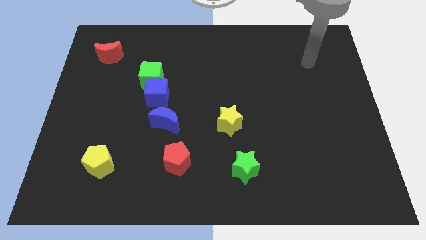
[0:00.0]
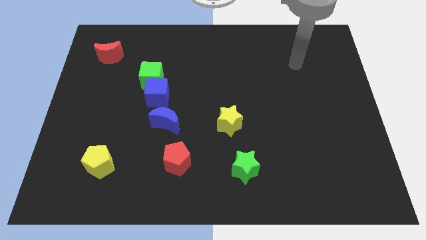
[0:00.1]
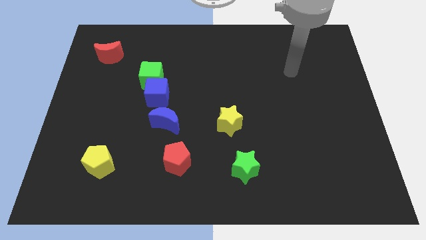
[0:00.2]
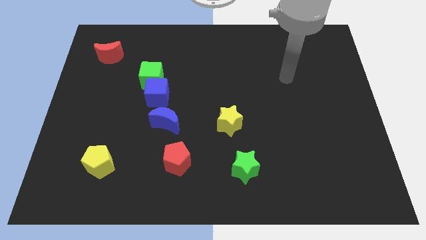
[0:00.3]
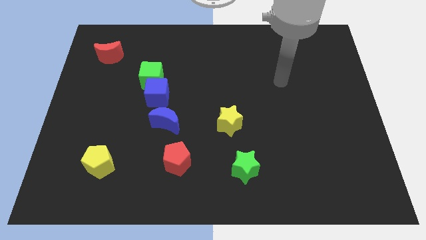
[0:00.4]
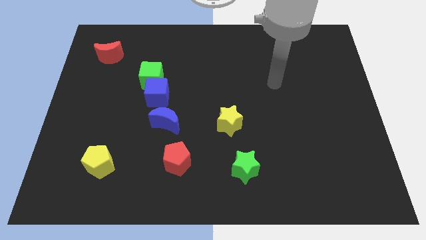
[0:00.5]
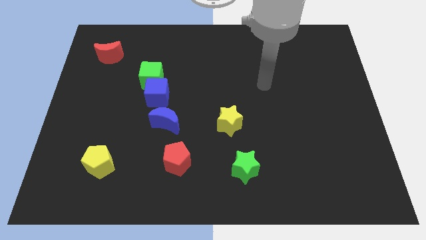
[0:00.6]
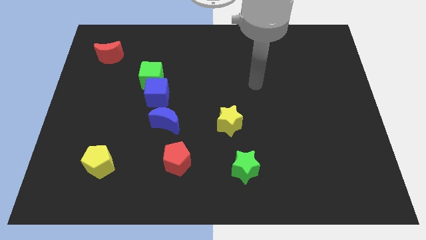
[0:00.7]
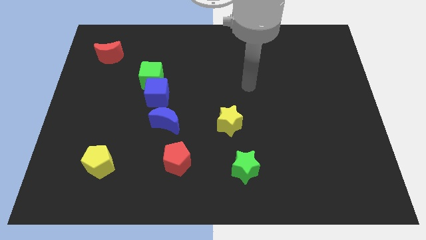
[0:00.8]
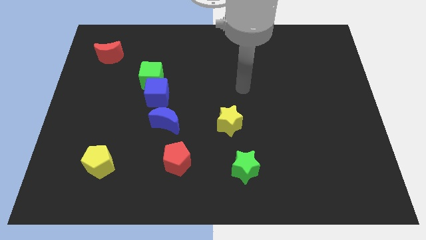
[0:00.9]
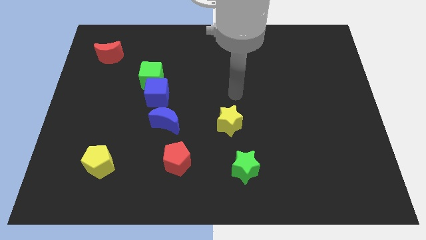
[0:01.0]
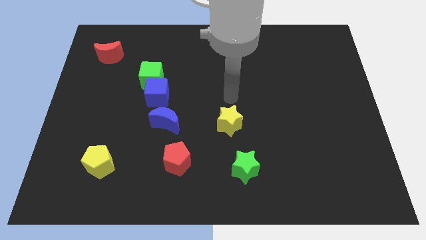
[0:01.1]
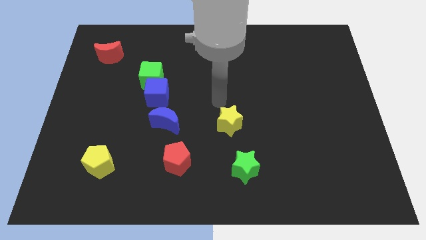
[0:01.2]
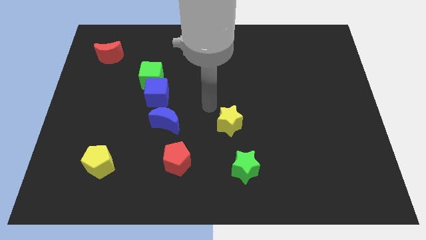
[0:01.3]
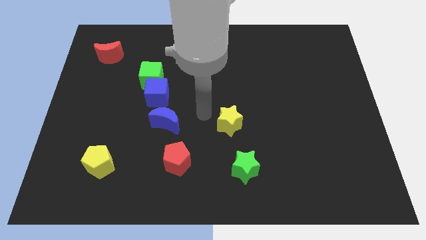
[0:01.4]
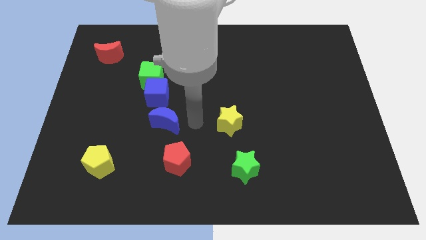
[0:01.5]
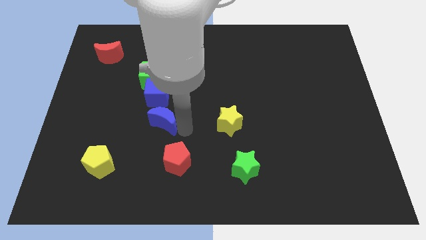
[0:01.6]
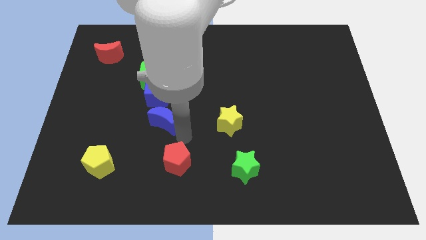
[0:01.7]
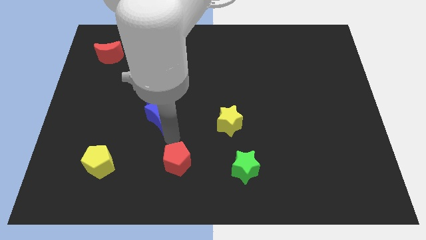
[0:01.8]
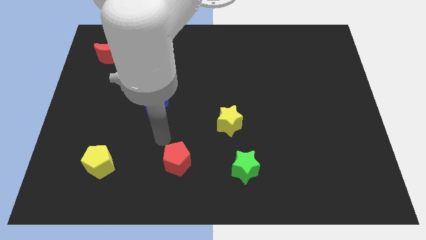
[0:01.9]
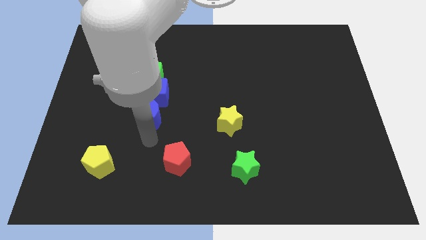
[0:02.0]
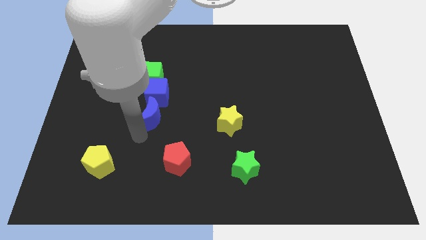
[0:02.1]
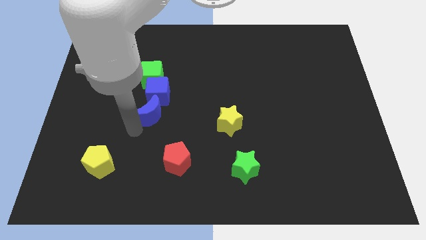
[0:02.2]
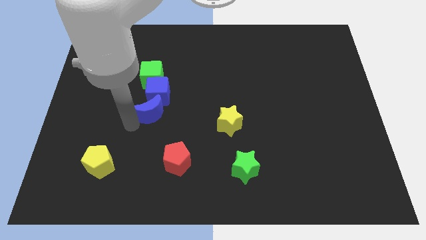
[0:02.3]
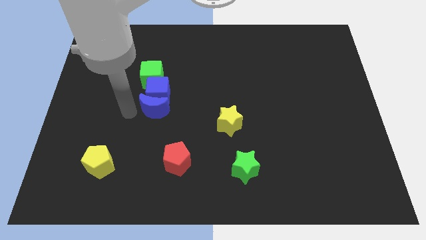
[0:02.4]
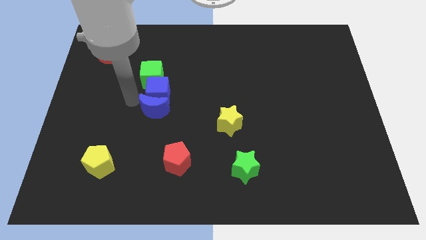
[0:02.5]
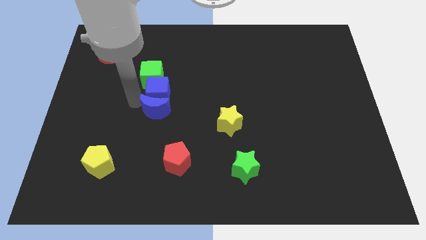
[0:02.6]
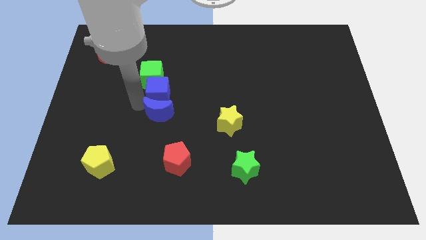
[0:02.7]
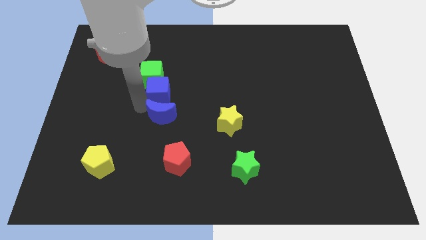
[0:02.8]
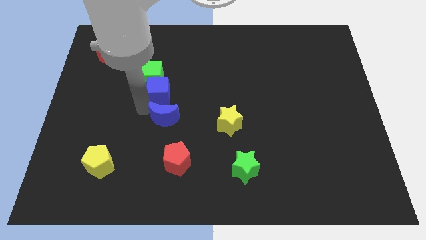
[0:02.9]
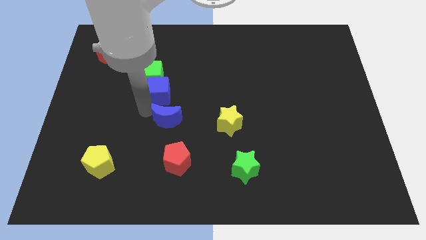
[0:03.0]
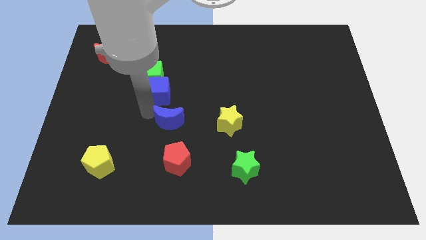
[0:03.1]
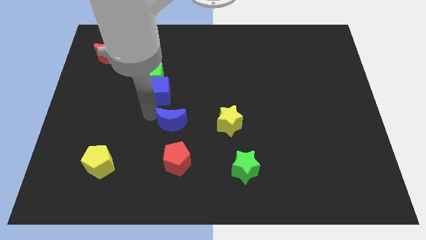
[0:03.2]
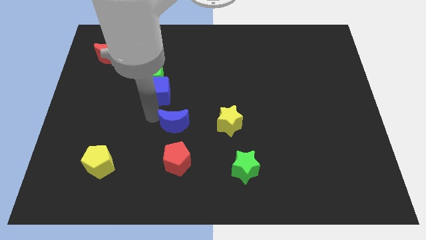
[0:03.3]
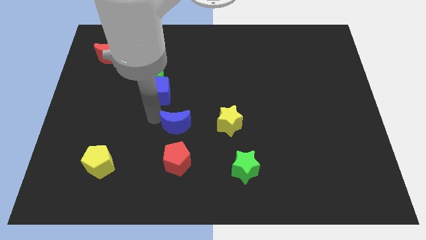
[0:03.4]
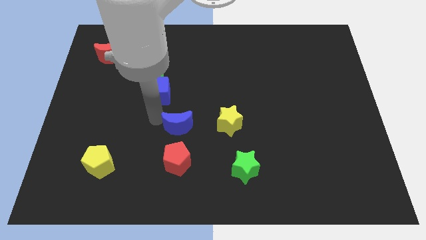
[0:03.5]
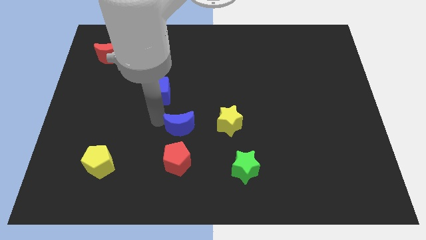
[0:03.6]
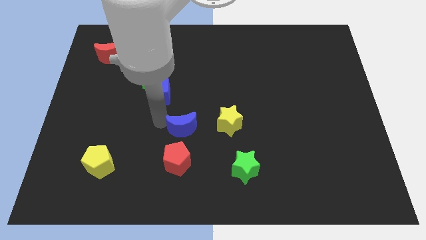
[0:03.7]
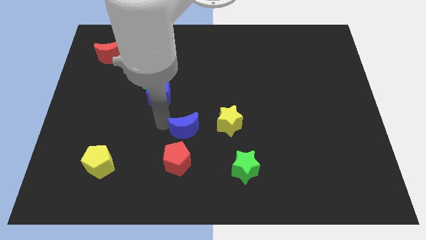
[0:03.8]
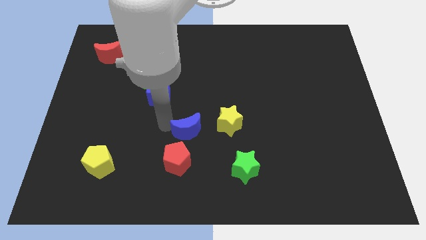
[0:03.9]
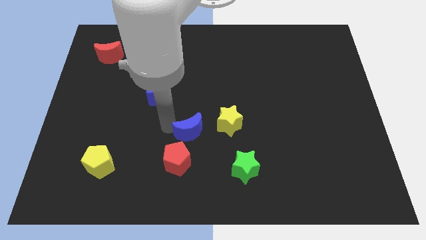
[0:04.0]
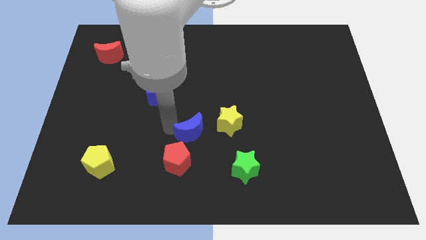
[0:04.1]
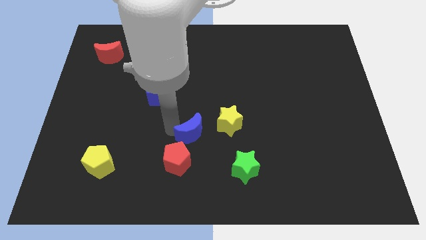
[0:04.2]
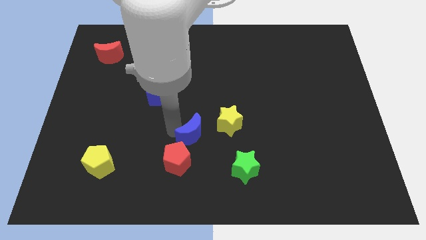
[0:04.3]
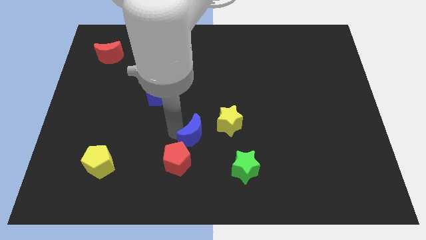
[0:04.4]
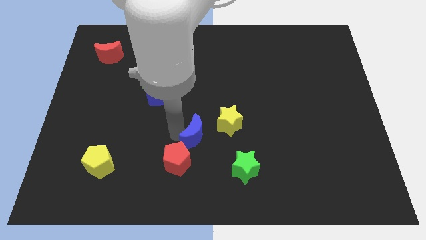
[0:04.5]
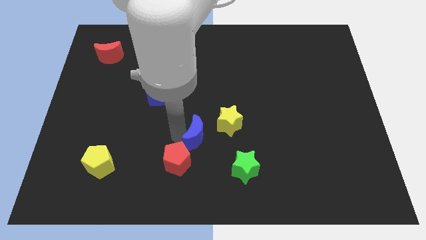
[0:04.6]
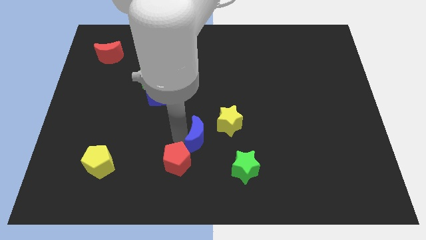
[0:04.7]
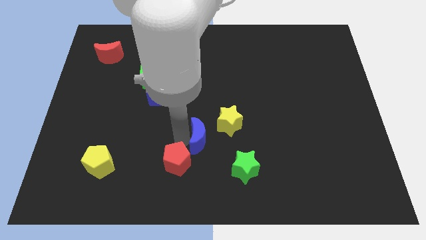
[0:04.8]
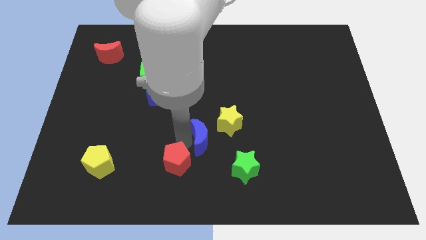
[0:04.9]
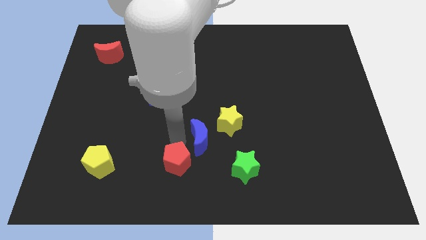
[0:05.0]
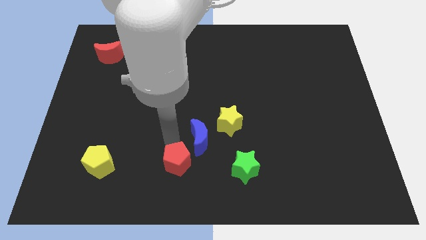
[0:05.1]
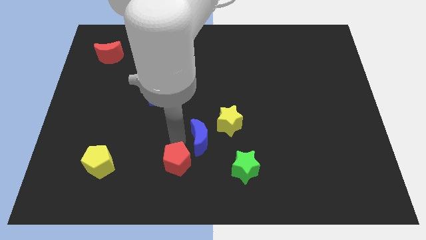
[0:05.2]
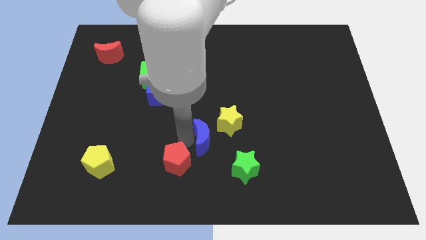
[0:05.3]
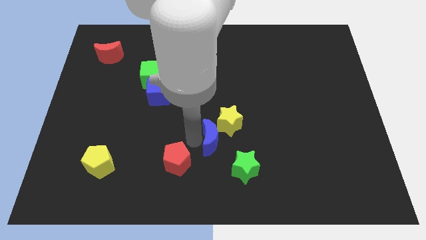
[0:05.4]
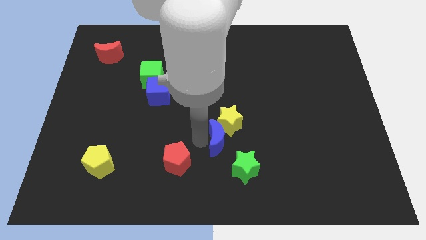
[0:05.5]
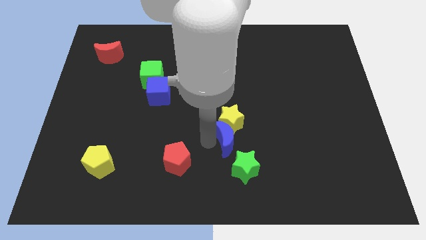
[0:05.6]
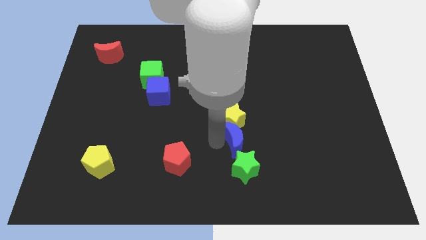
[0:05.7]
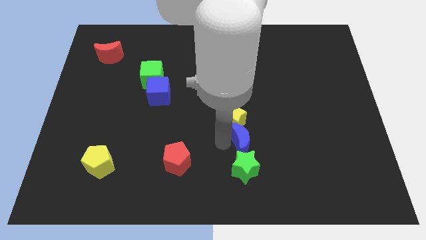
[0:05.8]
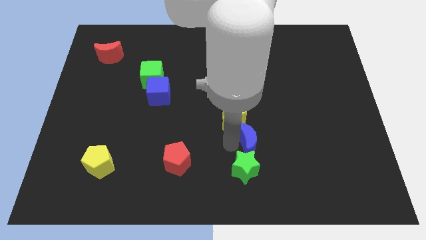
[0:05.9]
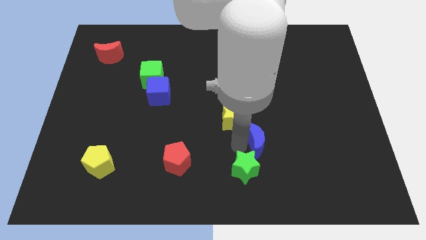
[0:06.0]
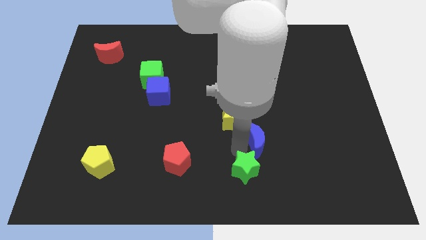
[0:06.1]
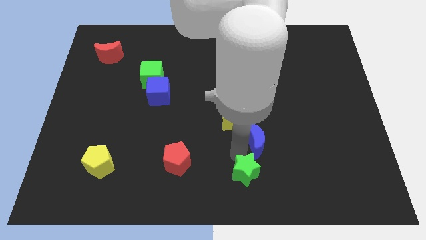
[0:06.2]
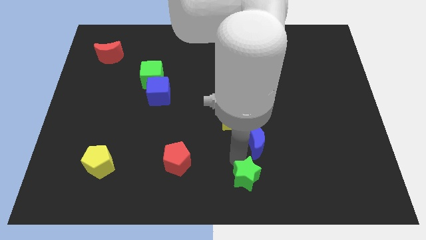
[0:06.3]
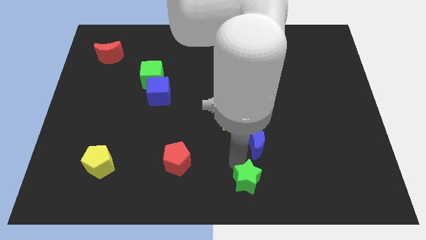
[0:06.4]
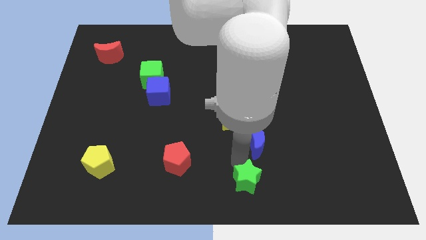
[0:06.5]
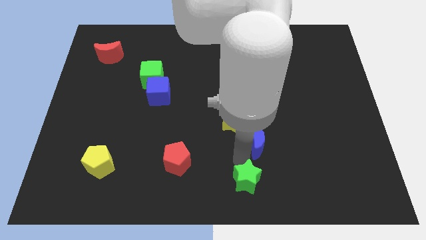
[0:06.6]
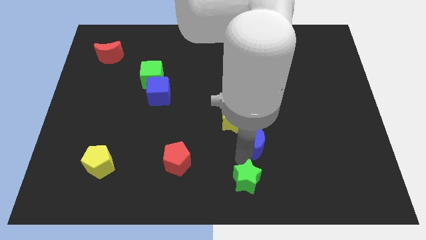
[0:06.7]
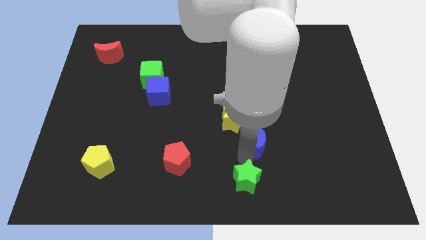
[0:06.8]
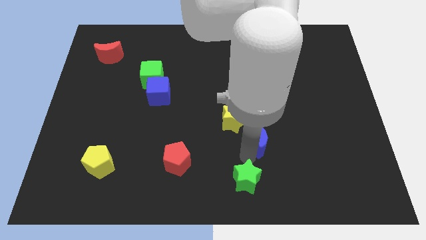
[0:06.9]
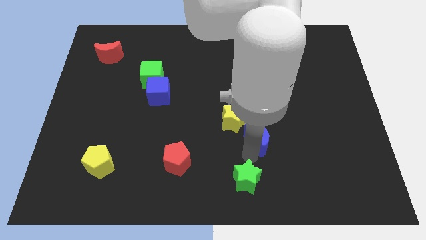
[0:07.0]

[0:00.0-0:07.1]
slide the blue moon right

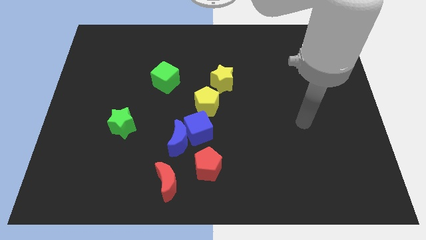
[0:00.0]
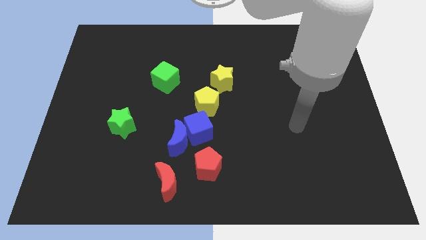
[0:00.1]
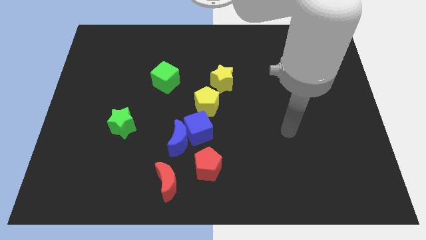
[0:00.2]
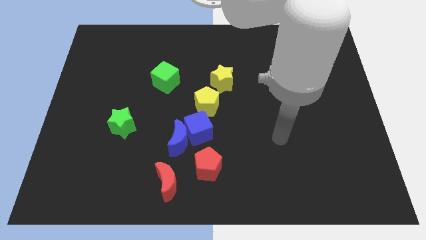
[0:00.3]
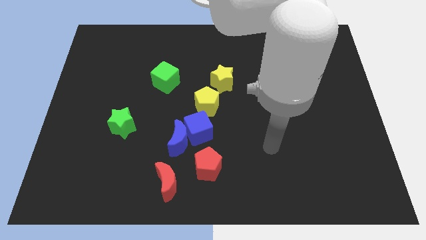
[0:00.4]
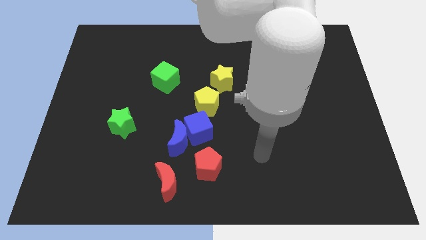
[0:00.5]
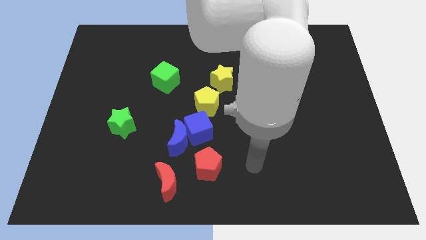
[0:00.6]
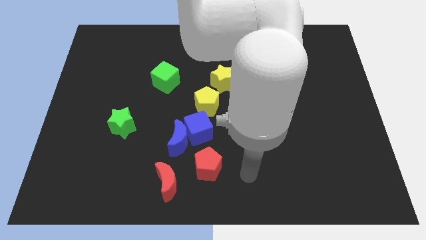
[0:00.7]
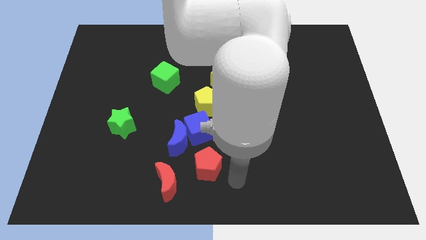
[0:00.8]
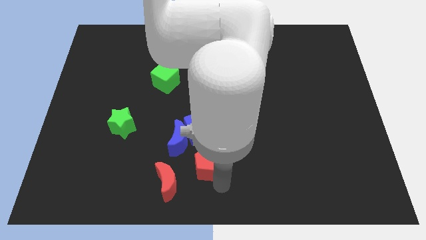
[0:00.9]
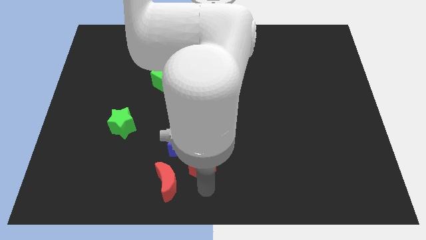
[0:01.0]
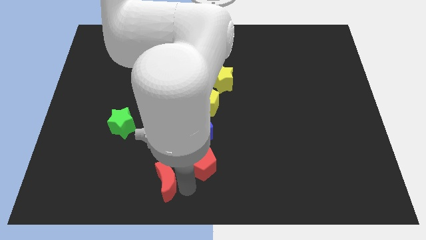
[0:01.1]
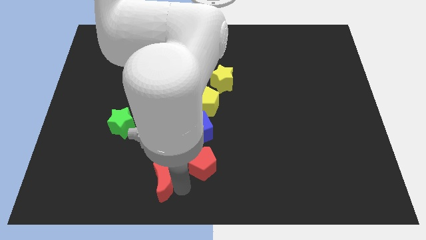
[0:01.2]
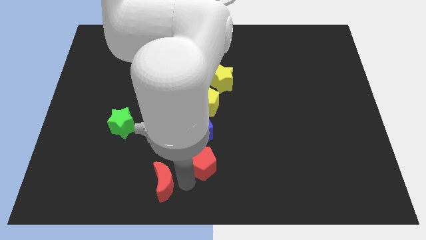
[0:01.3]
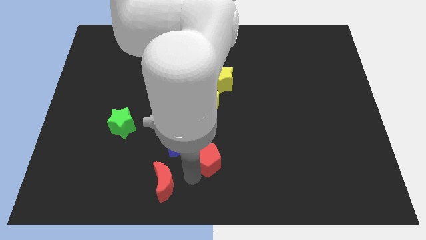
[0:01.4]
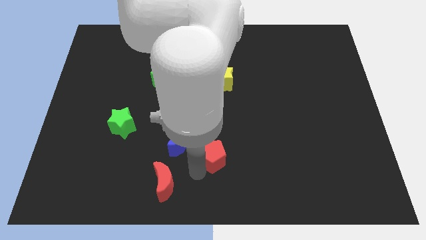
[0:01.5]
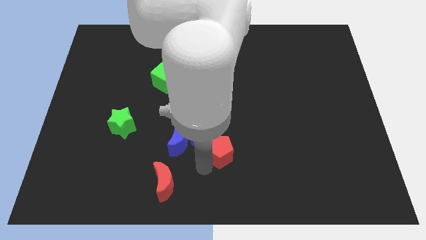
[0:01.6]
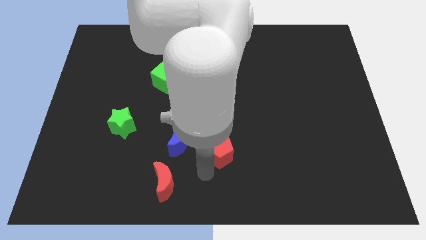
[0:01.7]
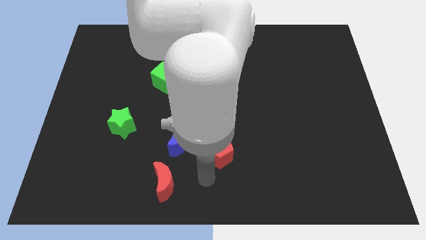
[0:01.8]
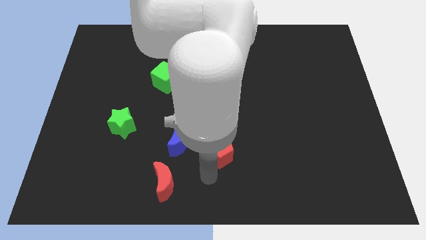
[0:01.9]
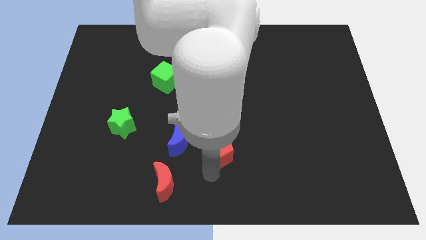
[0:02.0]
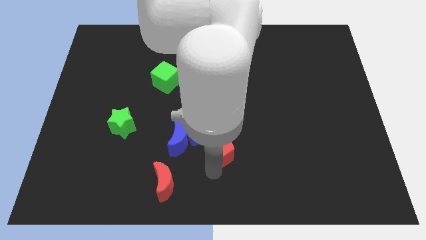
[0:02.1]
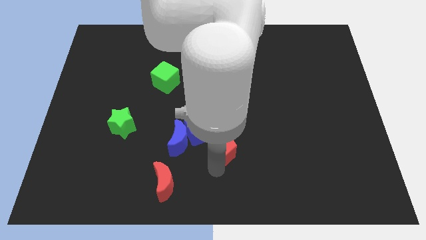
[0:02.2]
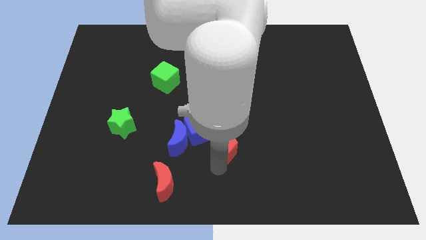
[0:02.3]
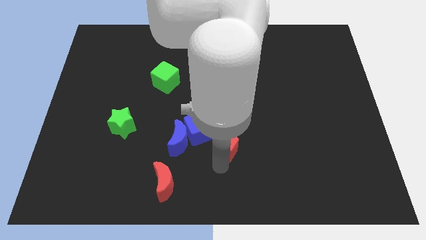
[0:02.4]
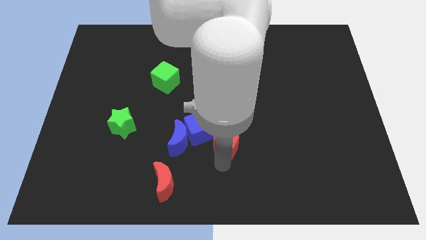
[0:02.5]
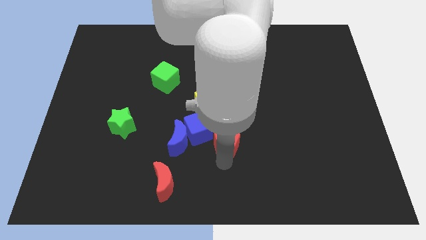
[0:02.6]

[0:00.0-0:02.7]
move the red pentagon upwards and to the right a little
